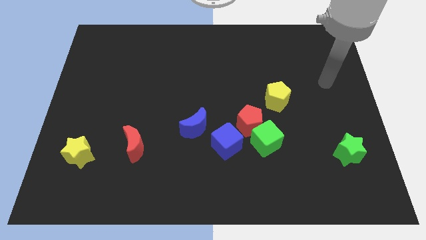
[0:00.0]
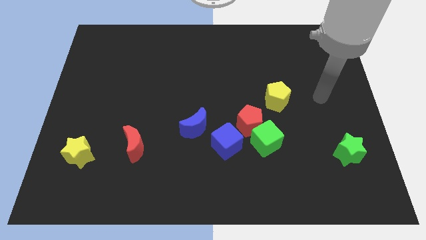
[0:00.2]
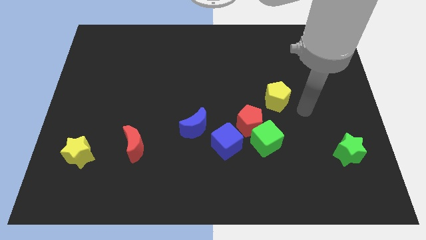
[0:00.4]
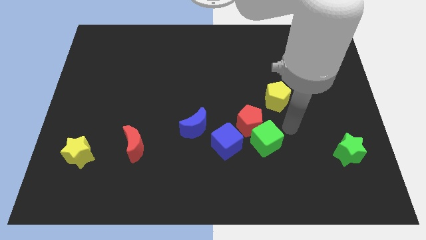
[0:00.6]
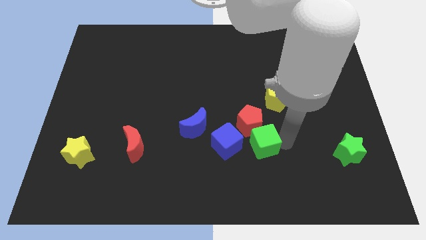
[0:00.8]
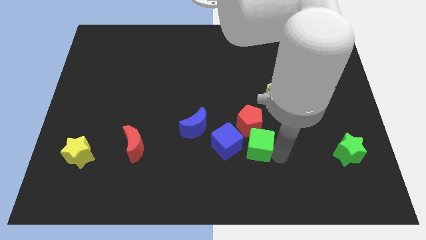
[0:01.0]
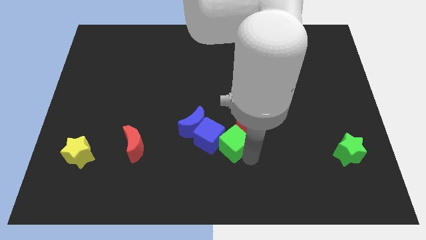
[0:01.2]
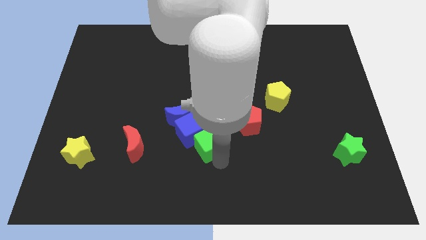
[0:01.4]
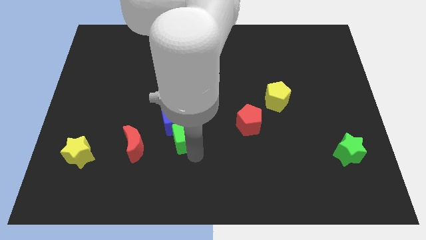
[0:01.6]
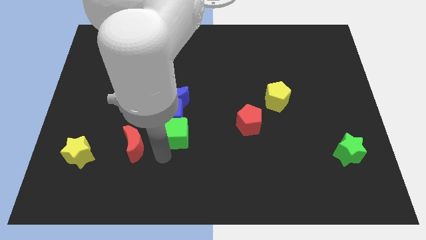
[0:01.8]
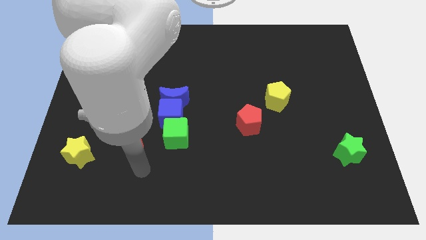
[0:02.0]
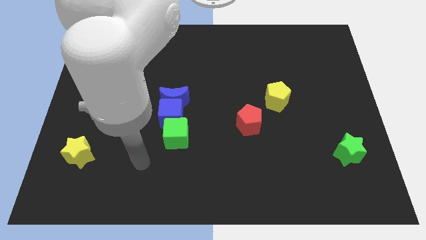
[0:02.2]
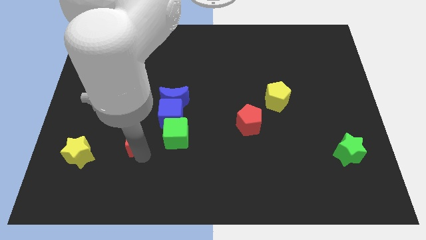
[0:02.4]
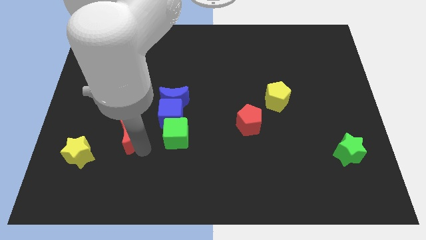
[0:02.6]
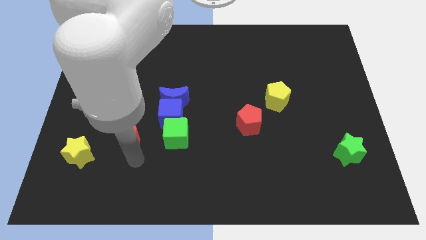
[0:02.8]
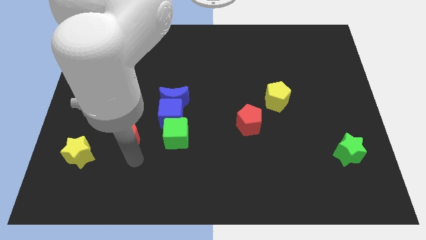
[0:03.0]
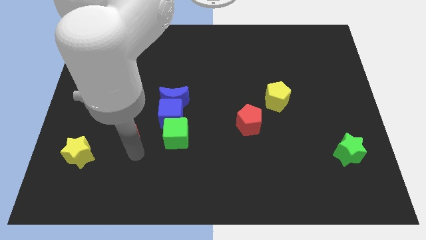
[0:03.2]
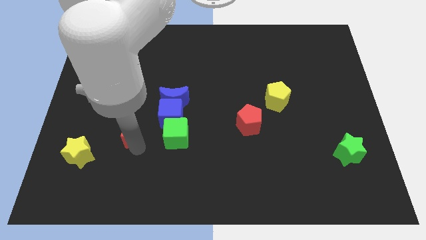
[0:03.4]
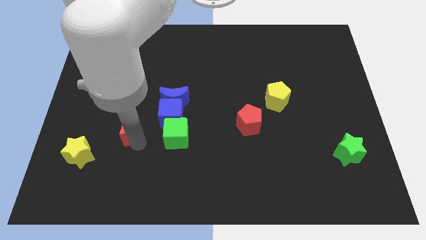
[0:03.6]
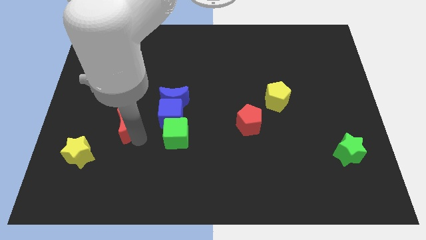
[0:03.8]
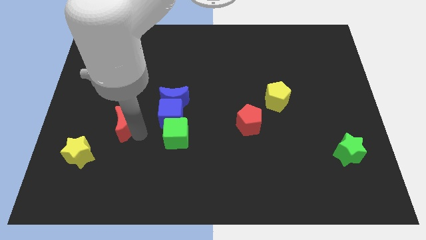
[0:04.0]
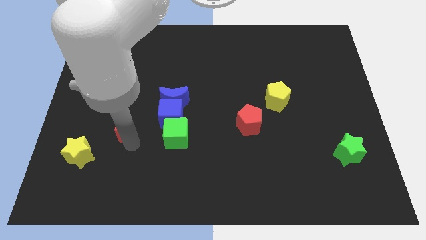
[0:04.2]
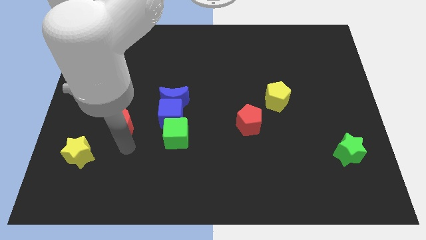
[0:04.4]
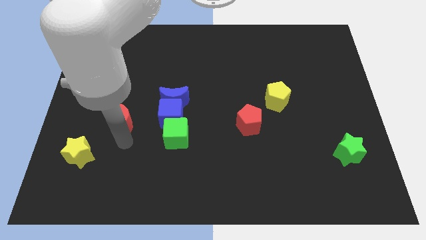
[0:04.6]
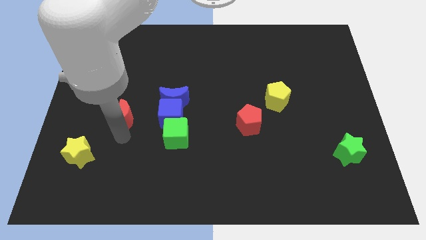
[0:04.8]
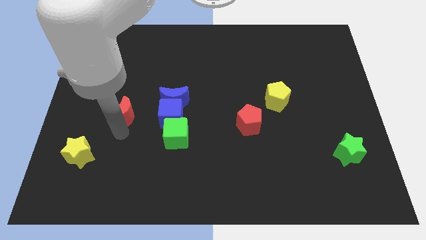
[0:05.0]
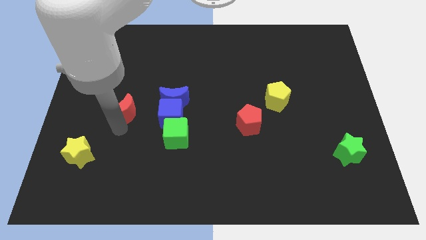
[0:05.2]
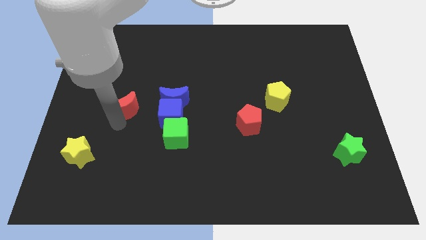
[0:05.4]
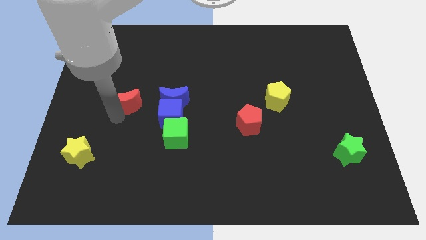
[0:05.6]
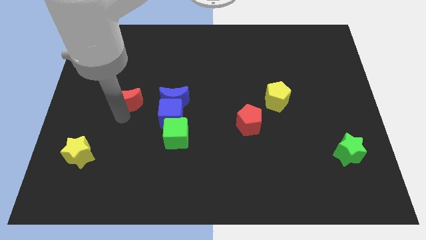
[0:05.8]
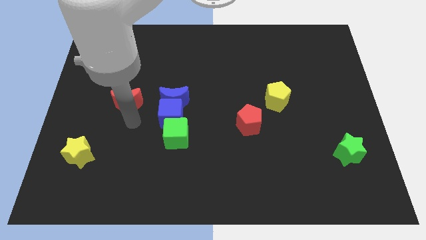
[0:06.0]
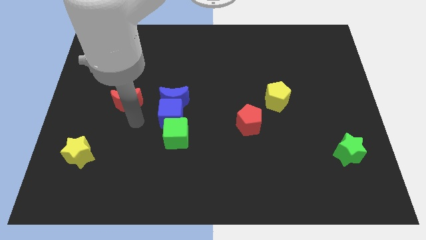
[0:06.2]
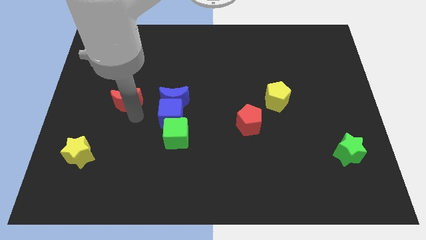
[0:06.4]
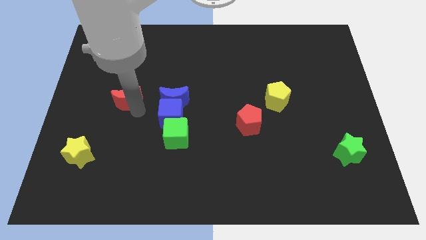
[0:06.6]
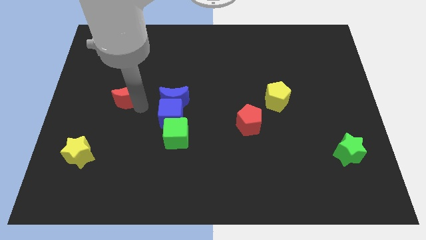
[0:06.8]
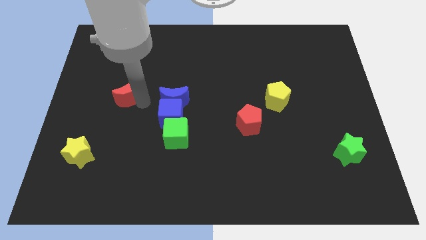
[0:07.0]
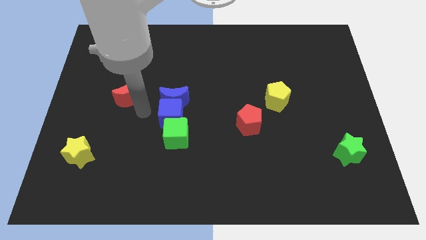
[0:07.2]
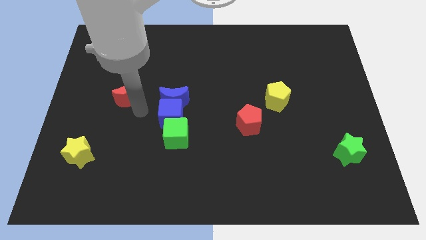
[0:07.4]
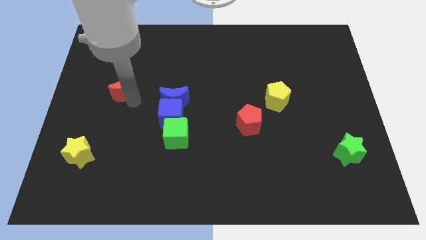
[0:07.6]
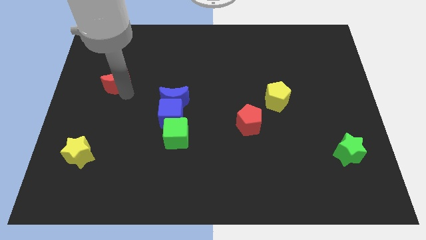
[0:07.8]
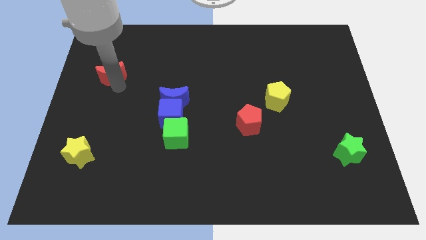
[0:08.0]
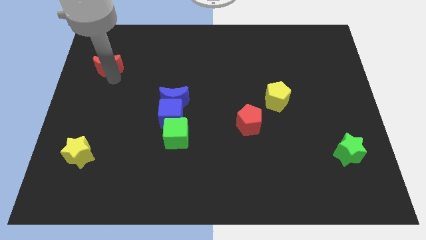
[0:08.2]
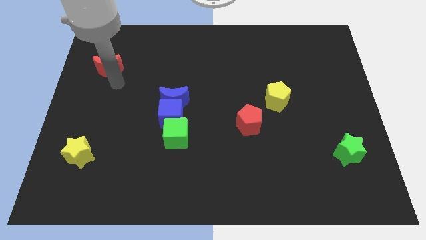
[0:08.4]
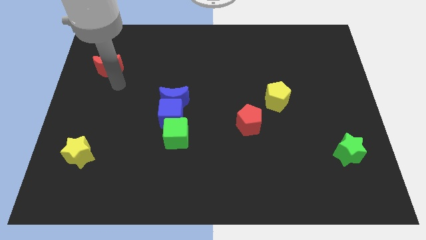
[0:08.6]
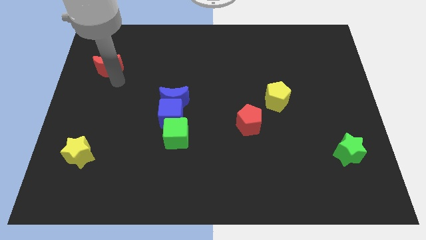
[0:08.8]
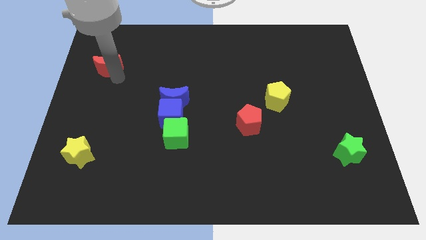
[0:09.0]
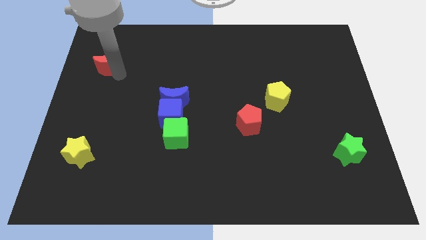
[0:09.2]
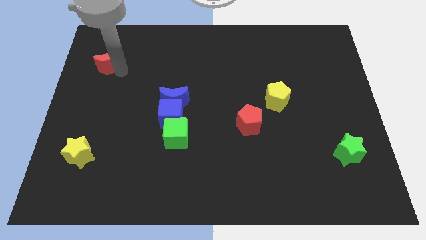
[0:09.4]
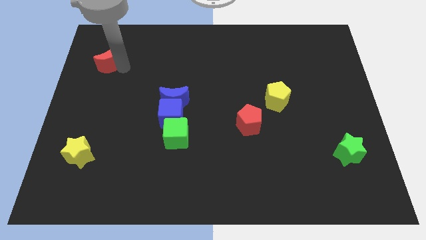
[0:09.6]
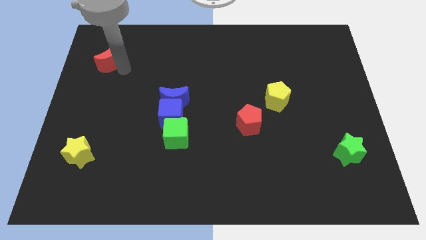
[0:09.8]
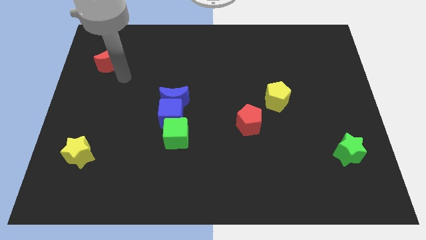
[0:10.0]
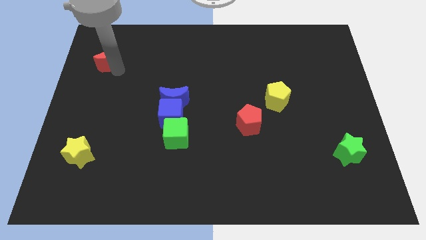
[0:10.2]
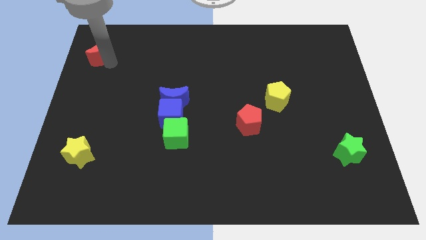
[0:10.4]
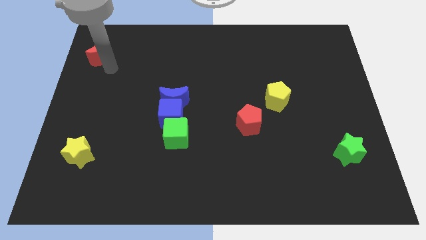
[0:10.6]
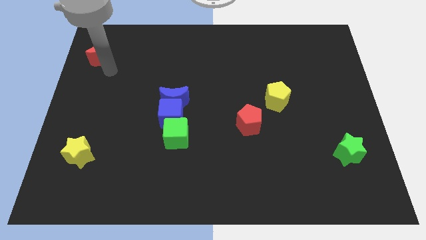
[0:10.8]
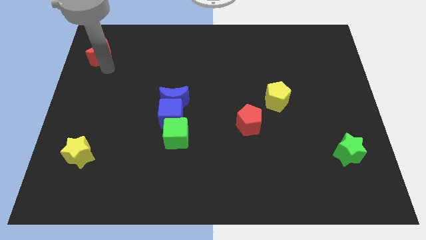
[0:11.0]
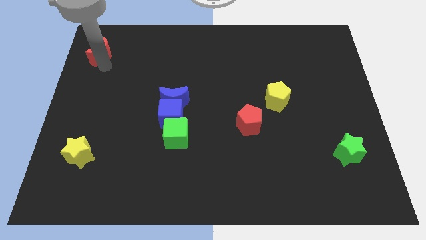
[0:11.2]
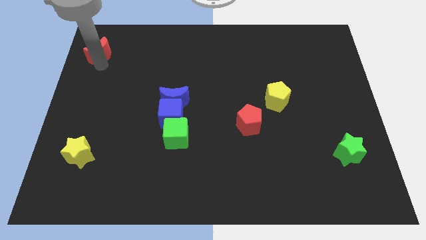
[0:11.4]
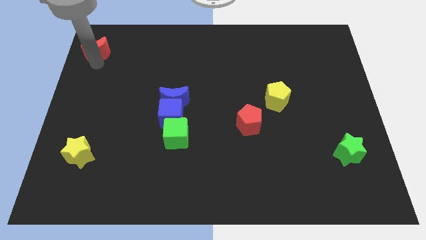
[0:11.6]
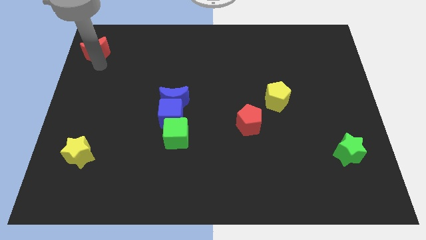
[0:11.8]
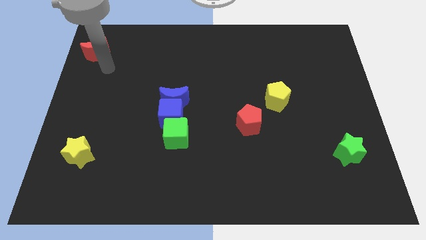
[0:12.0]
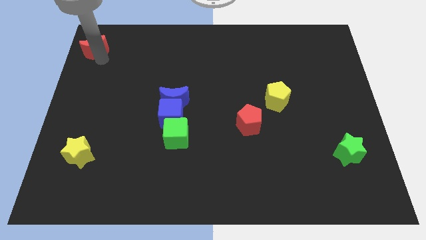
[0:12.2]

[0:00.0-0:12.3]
slide the red moon to the top left of the board
